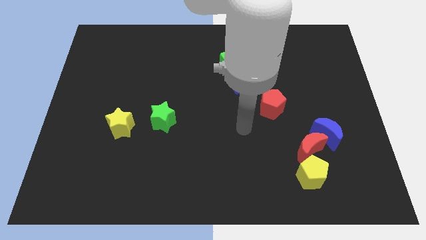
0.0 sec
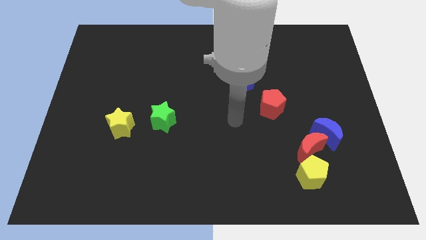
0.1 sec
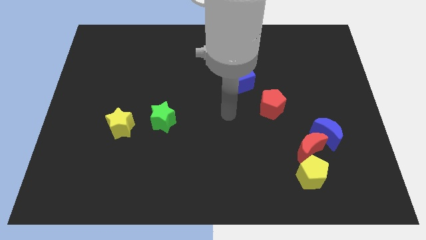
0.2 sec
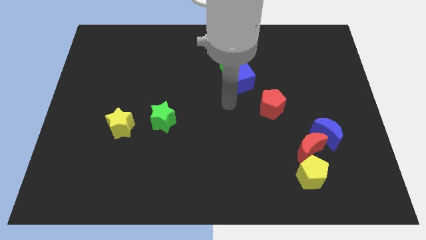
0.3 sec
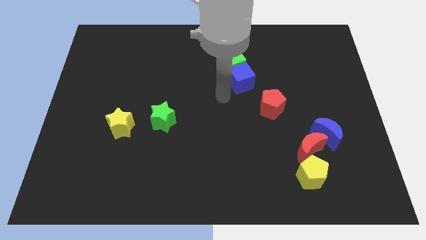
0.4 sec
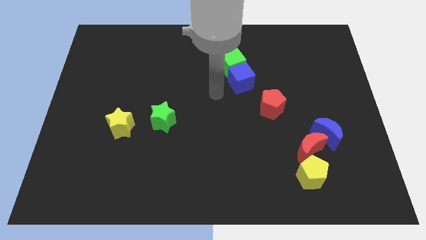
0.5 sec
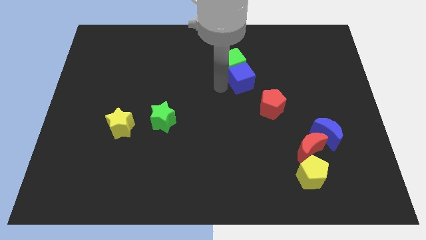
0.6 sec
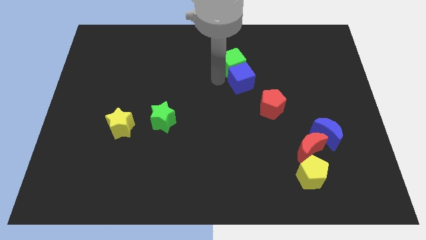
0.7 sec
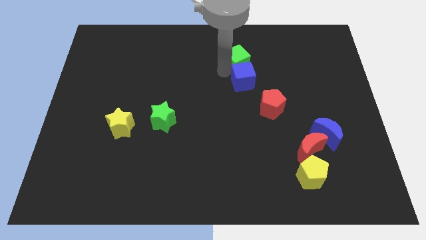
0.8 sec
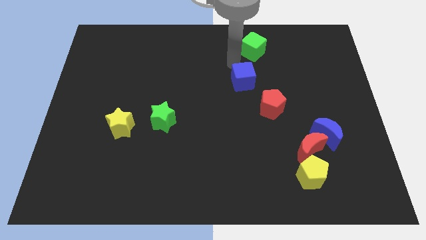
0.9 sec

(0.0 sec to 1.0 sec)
move the blue cube away from the green cube

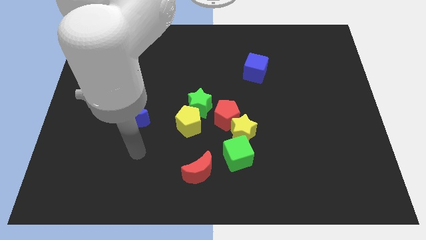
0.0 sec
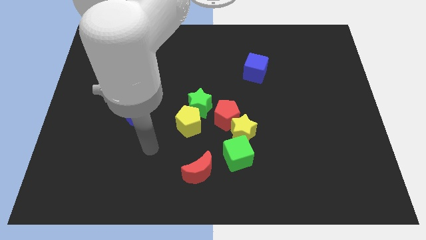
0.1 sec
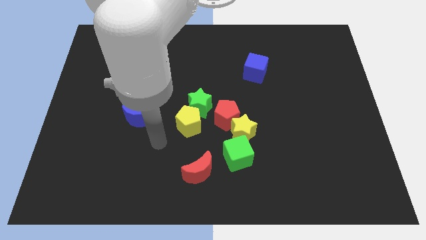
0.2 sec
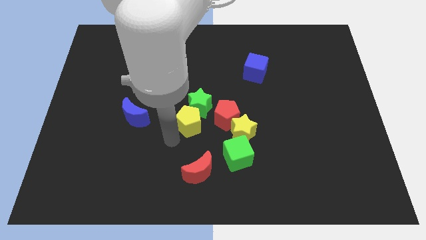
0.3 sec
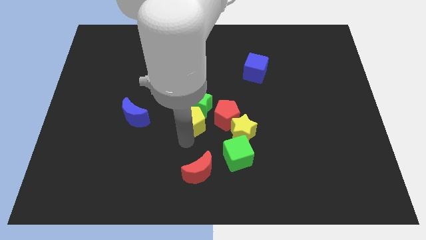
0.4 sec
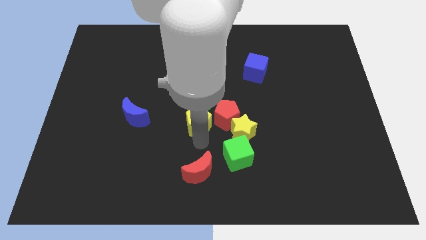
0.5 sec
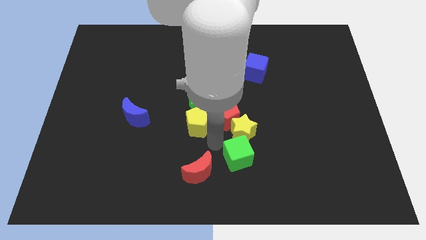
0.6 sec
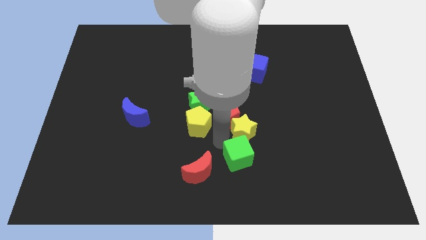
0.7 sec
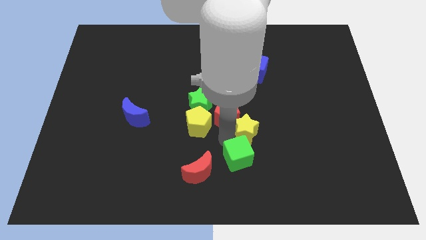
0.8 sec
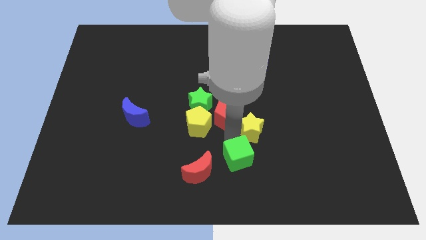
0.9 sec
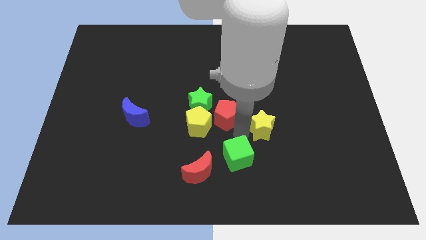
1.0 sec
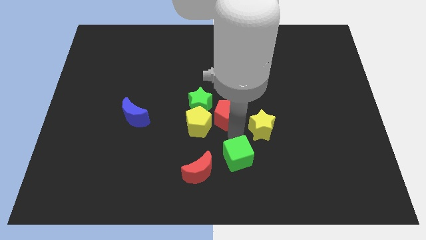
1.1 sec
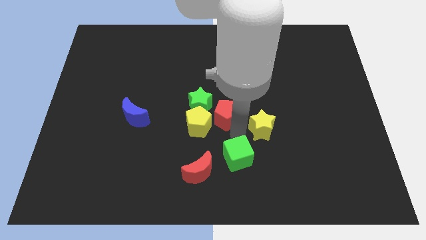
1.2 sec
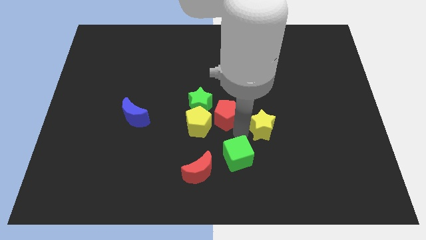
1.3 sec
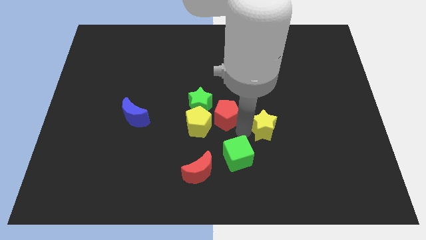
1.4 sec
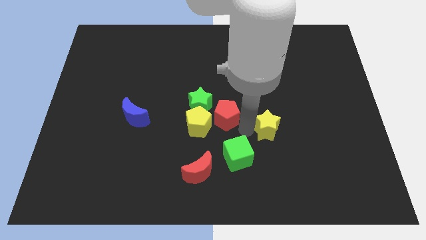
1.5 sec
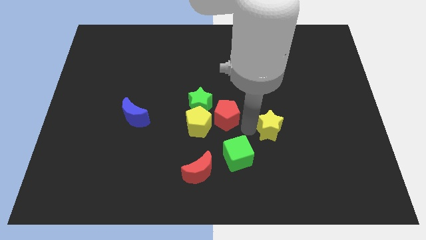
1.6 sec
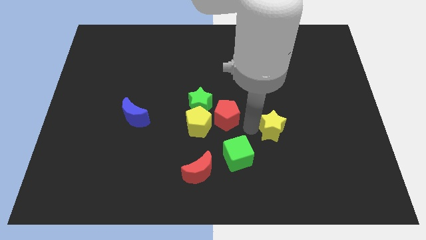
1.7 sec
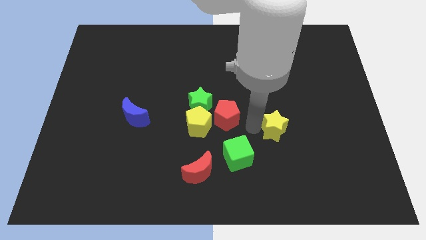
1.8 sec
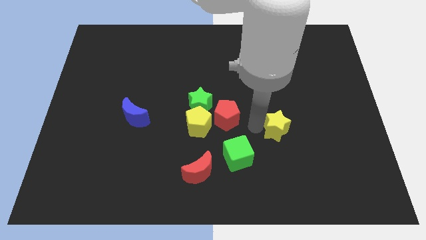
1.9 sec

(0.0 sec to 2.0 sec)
move the yellow star away from the red pentagon and green cube

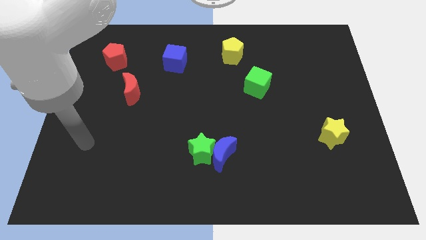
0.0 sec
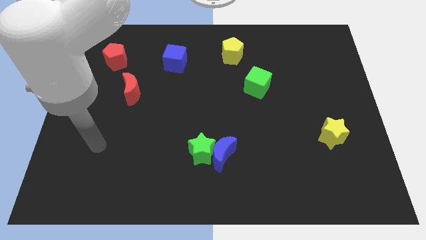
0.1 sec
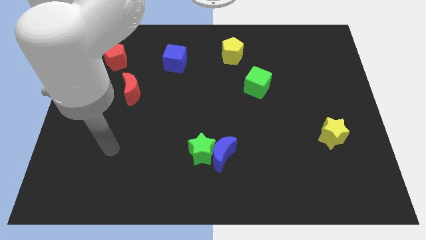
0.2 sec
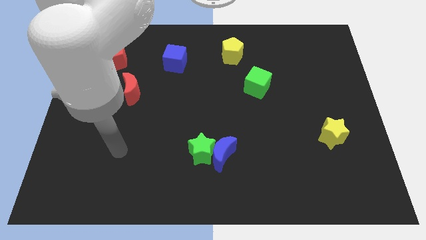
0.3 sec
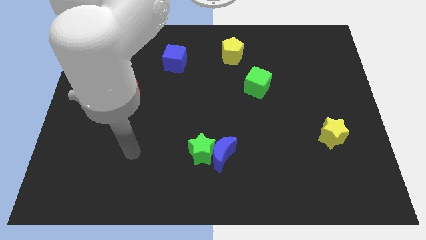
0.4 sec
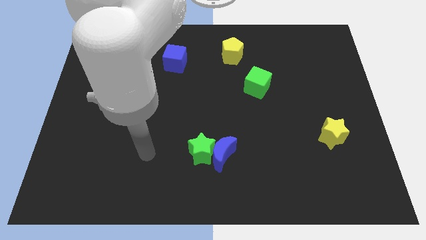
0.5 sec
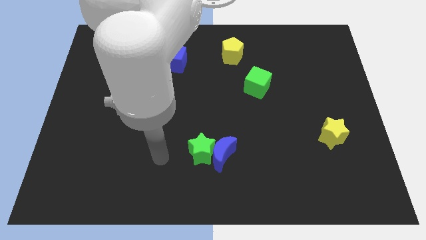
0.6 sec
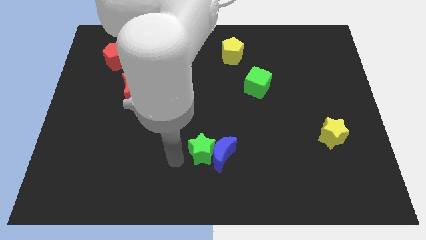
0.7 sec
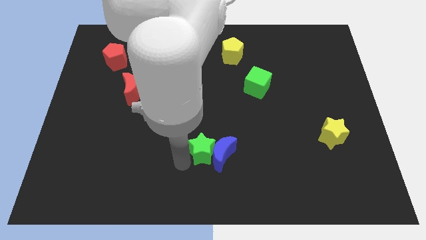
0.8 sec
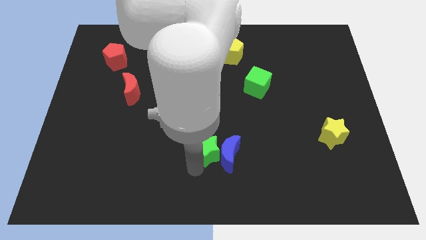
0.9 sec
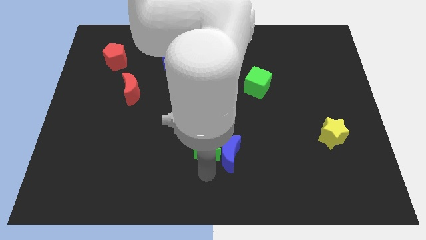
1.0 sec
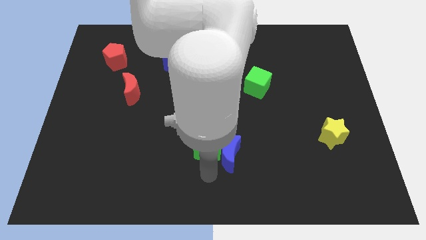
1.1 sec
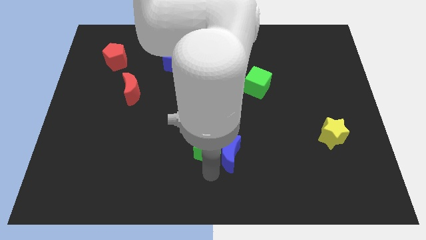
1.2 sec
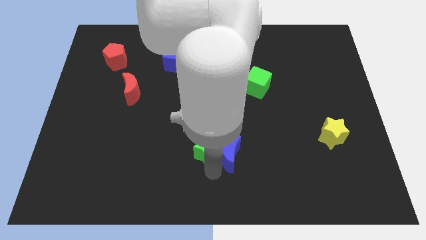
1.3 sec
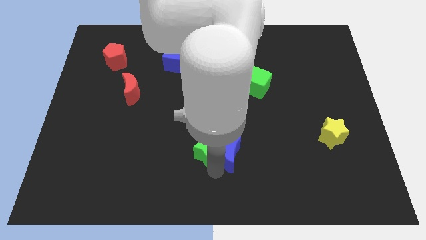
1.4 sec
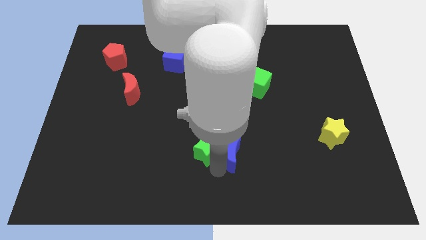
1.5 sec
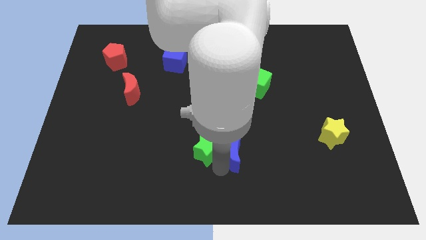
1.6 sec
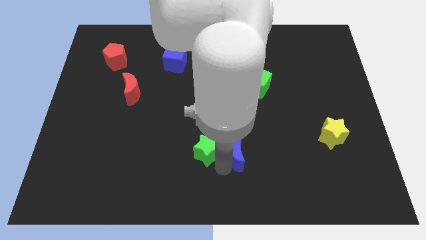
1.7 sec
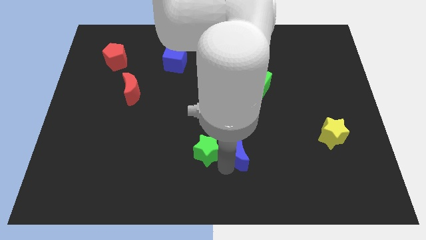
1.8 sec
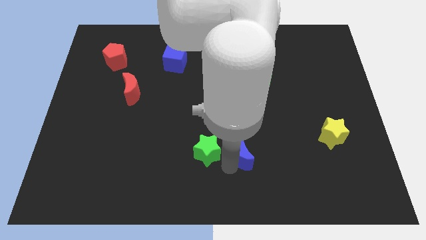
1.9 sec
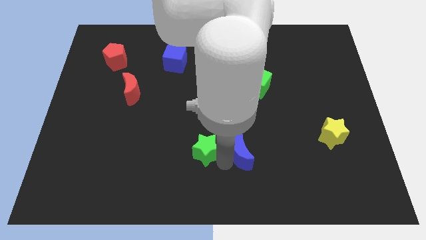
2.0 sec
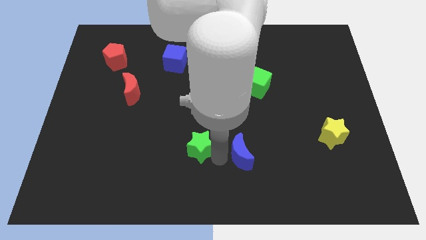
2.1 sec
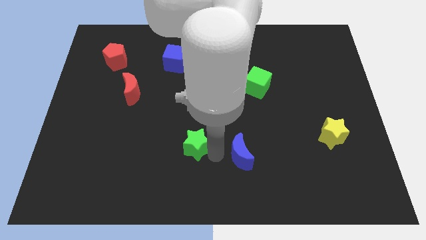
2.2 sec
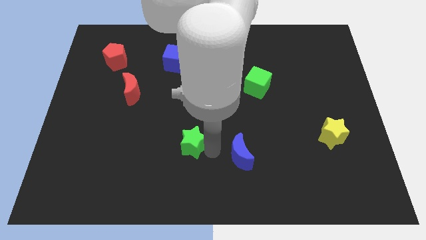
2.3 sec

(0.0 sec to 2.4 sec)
pull the blue moon apart from the green star

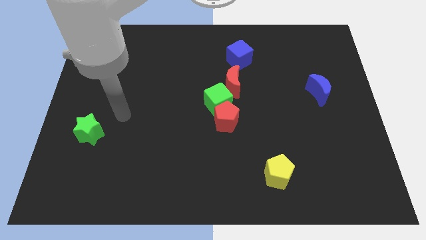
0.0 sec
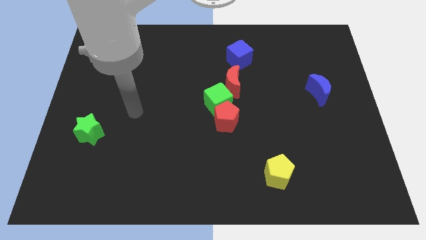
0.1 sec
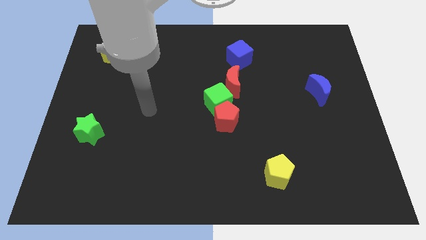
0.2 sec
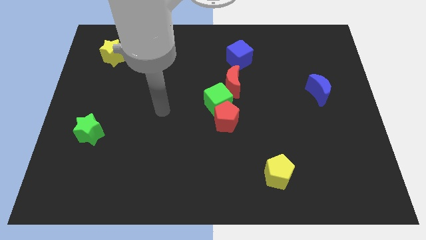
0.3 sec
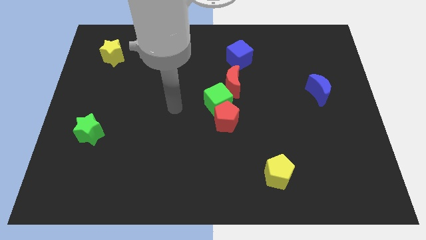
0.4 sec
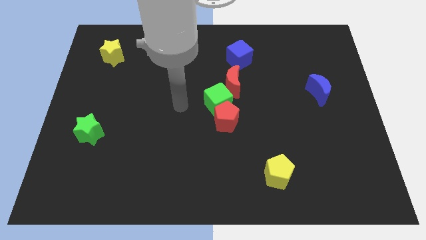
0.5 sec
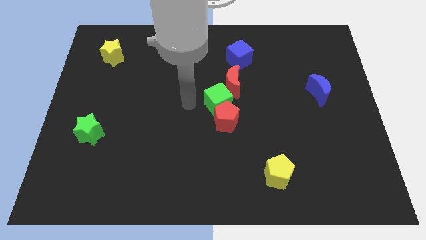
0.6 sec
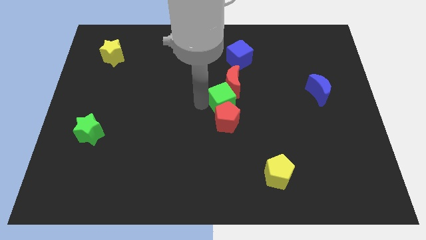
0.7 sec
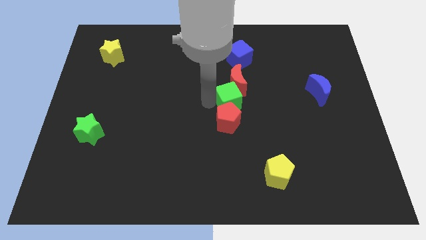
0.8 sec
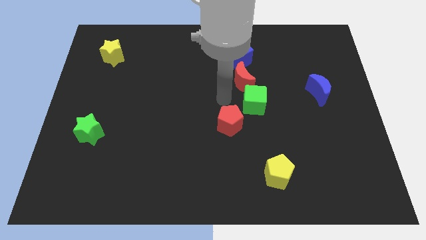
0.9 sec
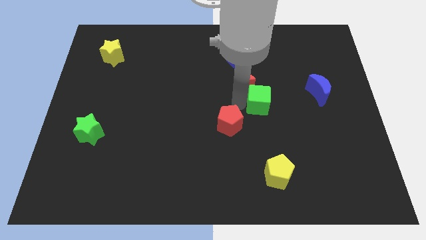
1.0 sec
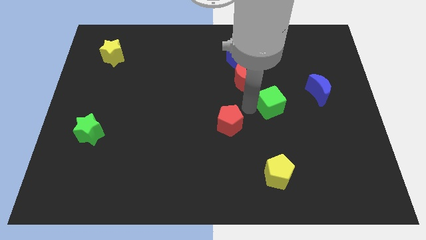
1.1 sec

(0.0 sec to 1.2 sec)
pull the red pentagon apart from the green cube

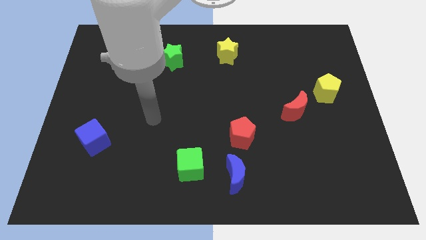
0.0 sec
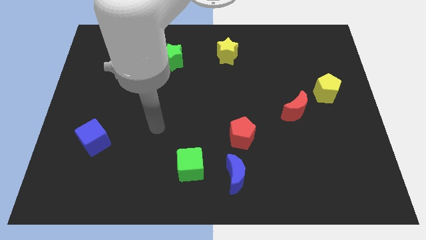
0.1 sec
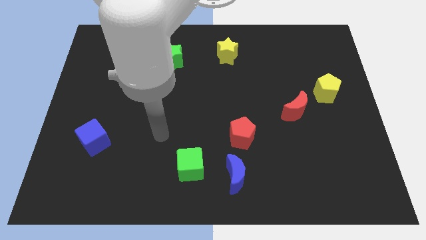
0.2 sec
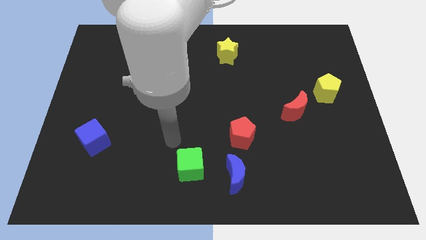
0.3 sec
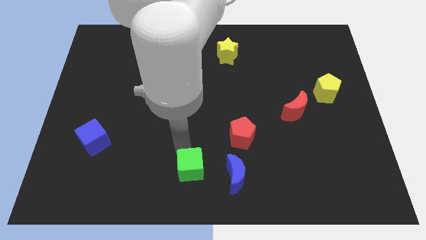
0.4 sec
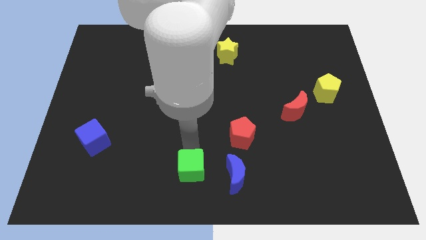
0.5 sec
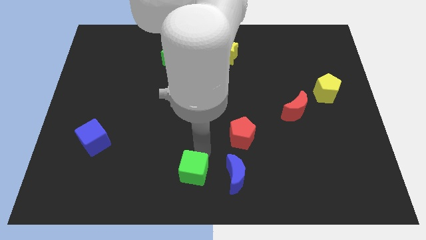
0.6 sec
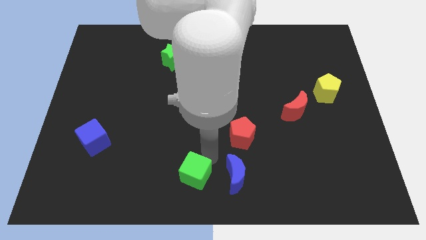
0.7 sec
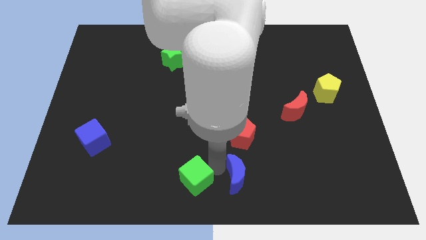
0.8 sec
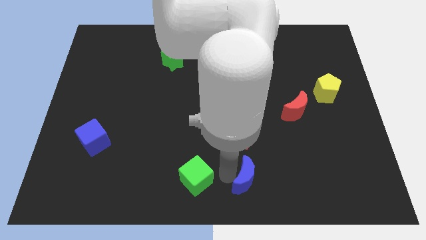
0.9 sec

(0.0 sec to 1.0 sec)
separate the green cube from the blue moon

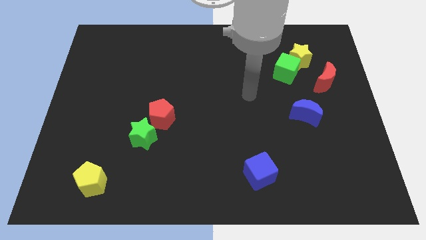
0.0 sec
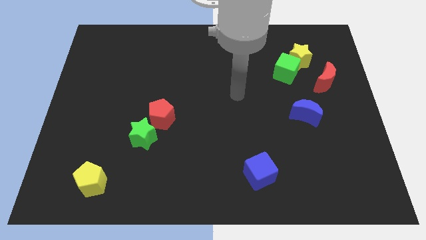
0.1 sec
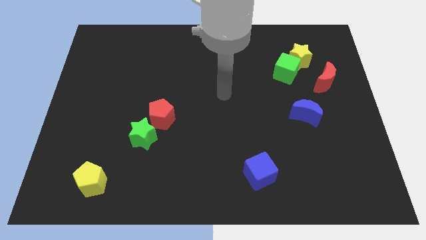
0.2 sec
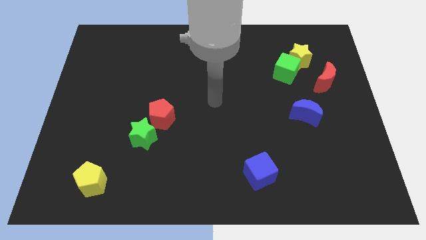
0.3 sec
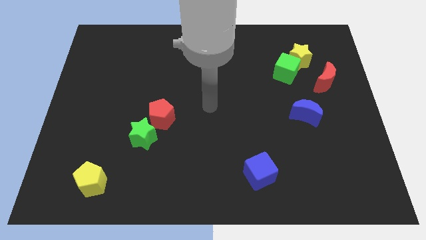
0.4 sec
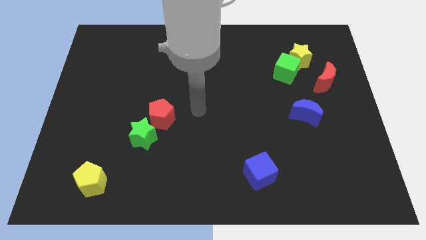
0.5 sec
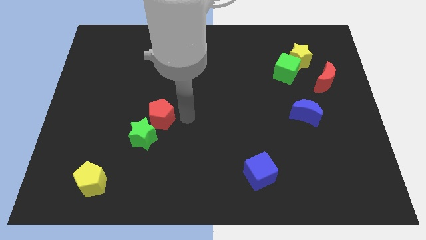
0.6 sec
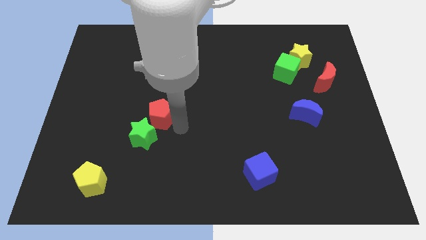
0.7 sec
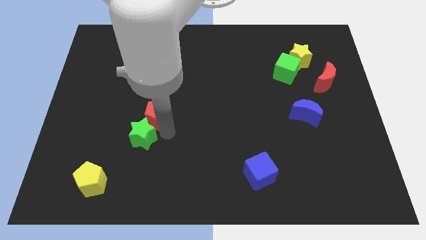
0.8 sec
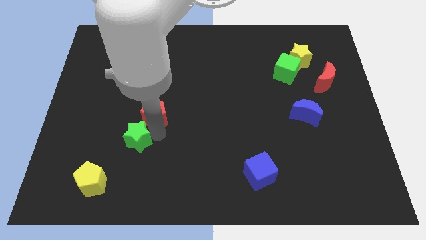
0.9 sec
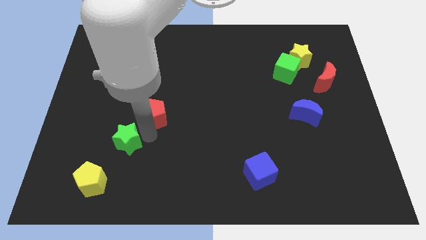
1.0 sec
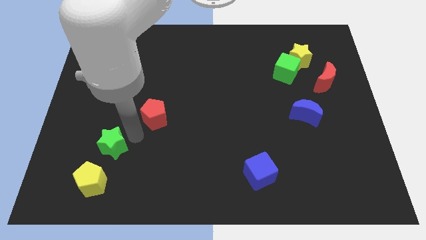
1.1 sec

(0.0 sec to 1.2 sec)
pull the red pentagon apart from the green star

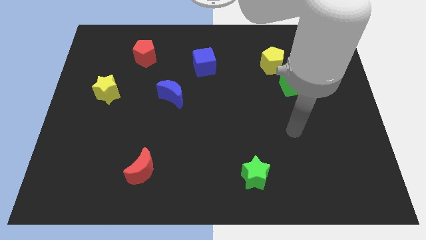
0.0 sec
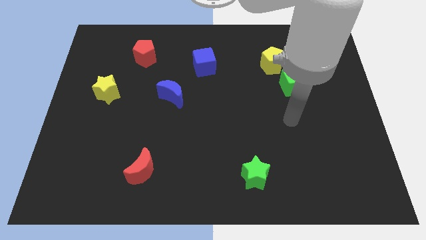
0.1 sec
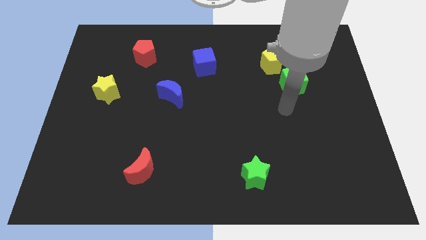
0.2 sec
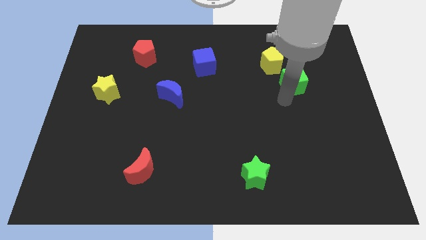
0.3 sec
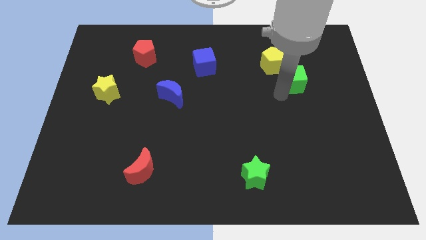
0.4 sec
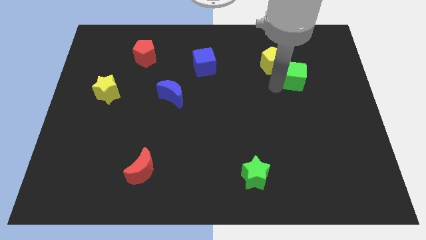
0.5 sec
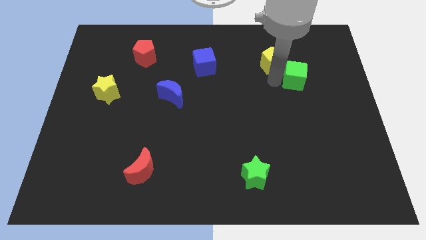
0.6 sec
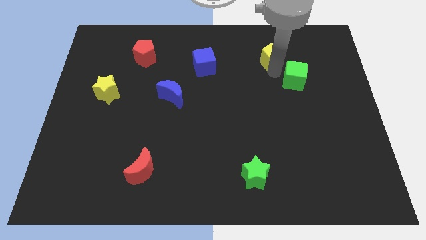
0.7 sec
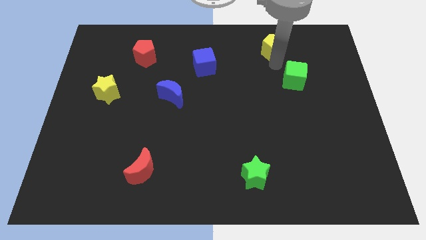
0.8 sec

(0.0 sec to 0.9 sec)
separate the green cube from the yellow pentagon
